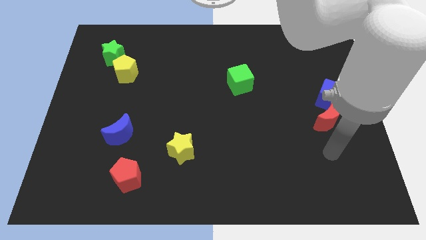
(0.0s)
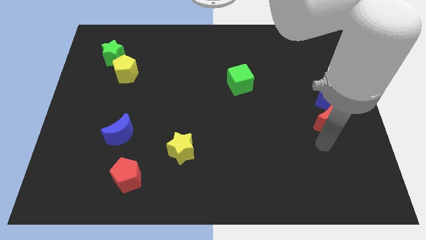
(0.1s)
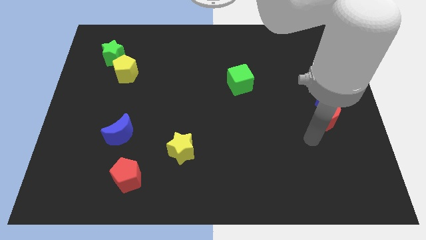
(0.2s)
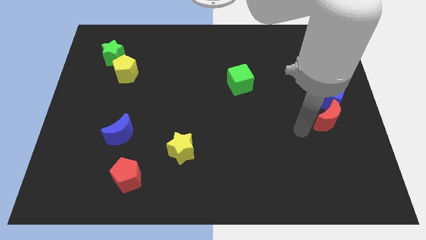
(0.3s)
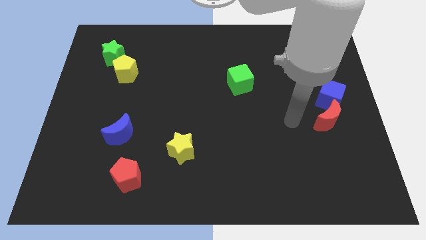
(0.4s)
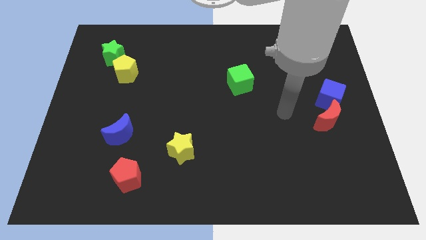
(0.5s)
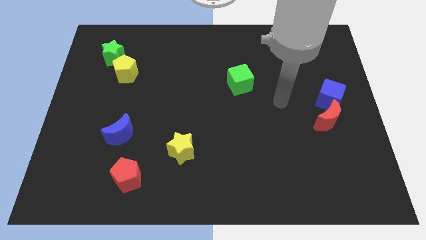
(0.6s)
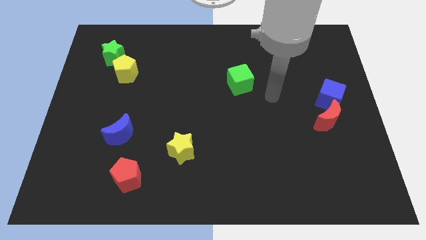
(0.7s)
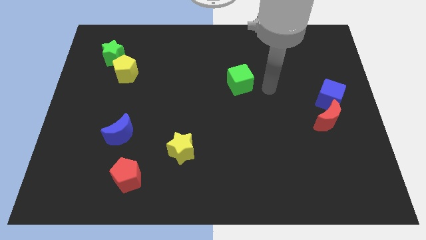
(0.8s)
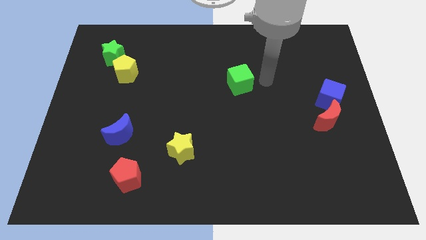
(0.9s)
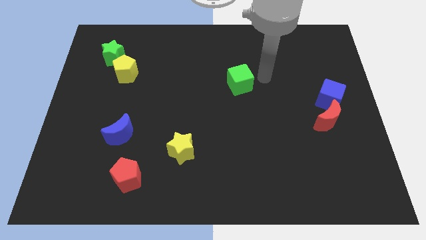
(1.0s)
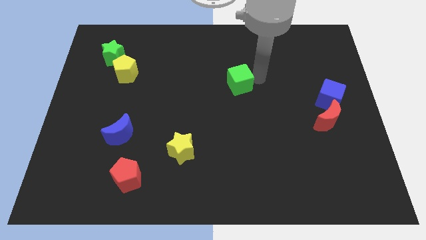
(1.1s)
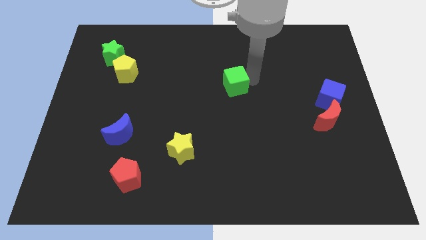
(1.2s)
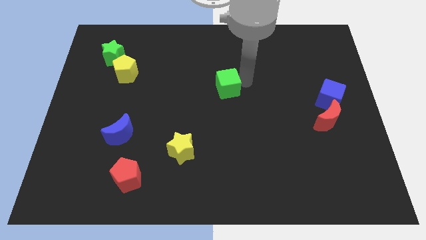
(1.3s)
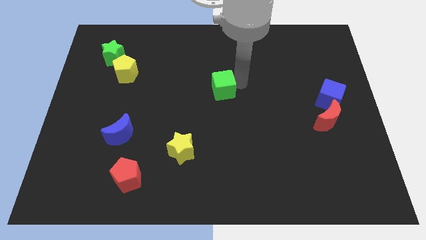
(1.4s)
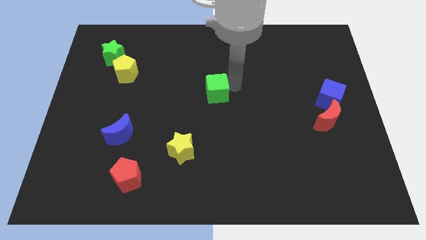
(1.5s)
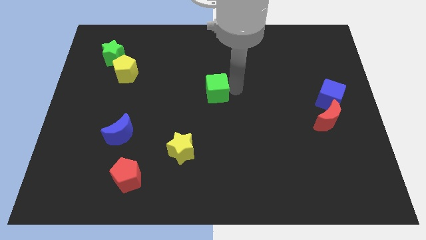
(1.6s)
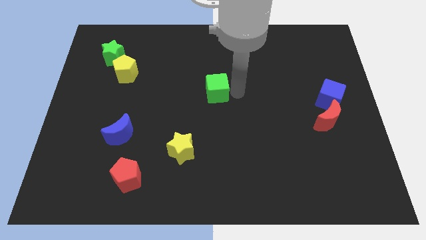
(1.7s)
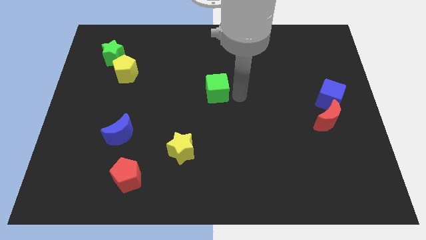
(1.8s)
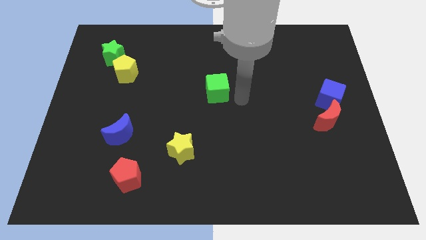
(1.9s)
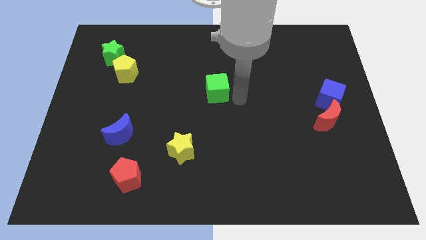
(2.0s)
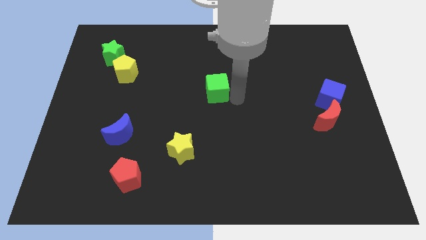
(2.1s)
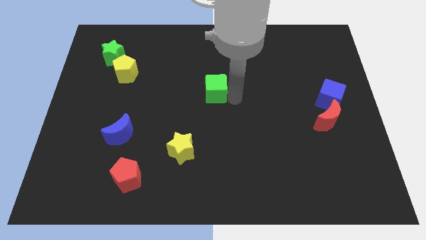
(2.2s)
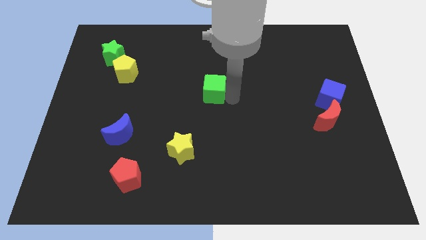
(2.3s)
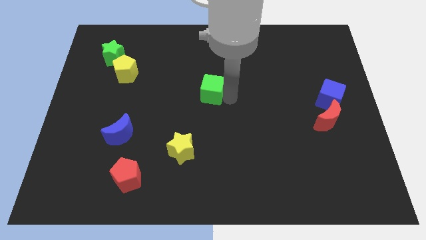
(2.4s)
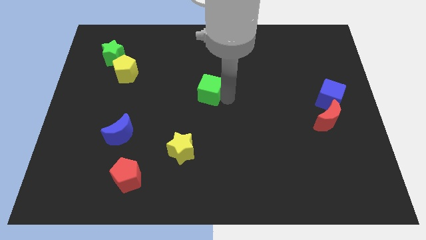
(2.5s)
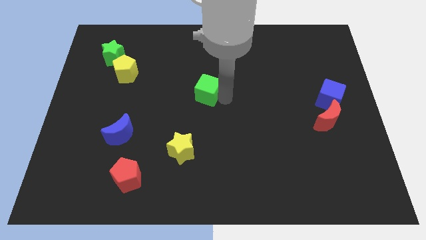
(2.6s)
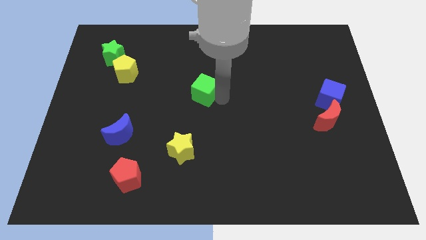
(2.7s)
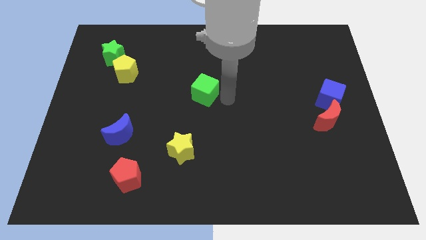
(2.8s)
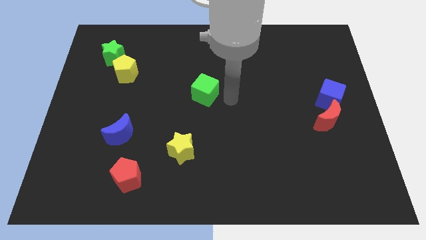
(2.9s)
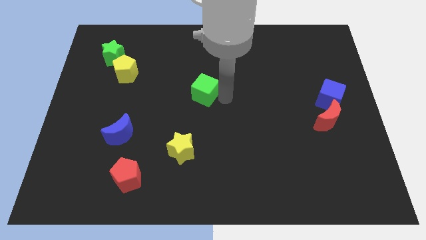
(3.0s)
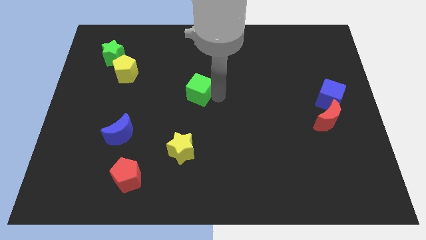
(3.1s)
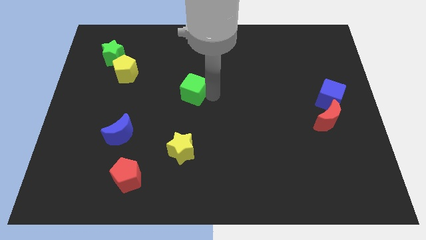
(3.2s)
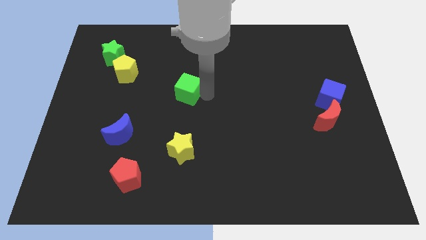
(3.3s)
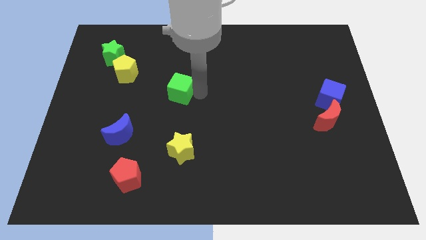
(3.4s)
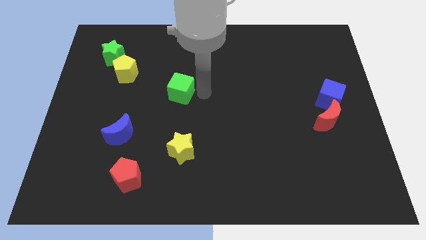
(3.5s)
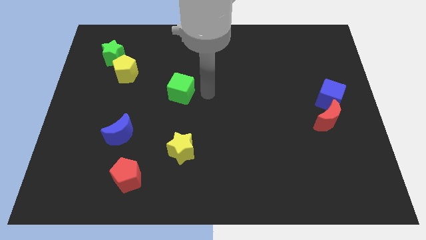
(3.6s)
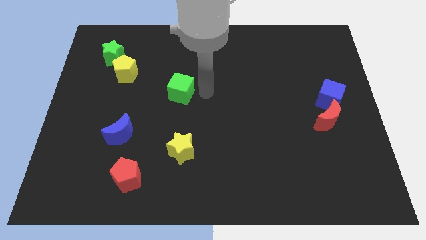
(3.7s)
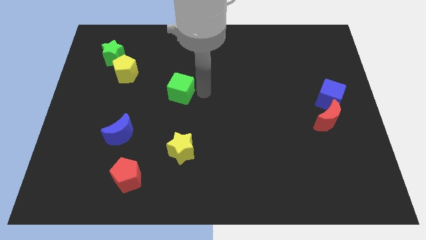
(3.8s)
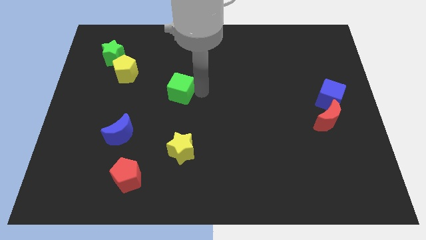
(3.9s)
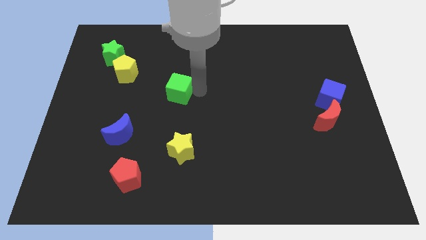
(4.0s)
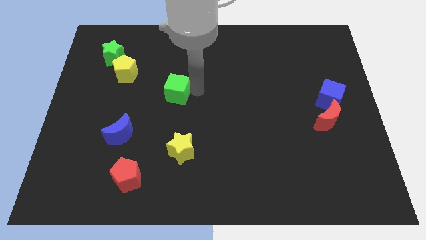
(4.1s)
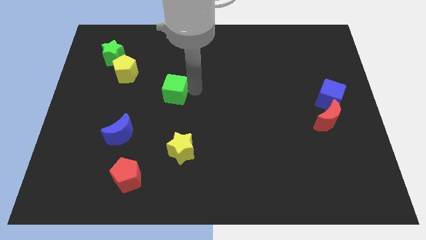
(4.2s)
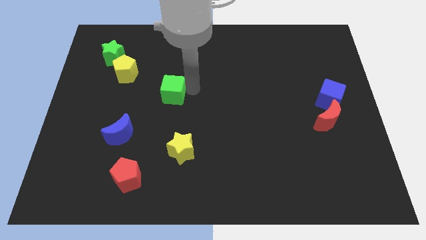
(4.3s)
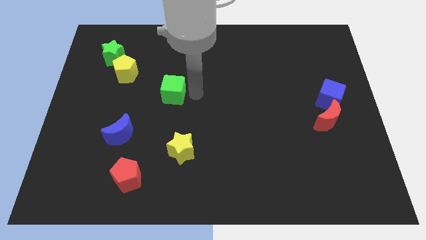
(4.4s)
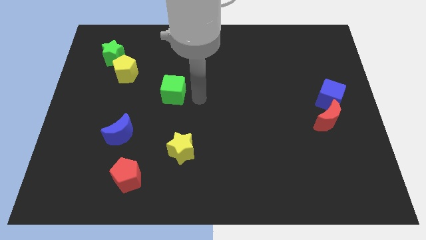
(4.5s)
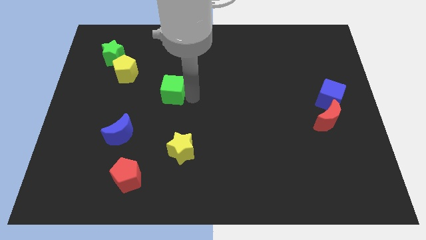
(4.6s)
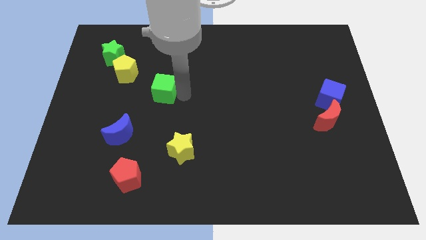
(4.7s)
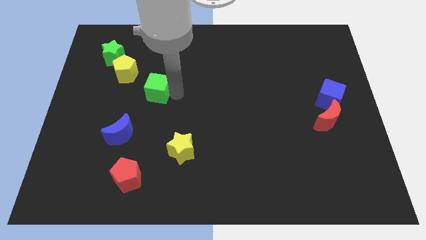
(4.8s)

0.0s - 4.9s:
push the green cube to the left

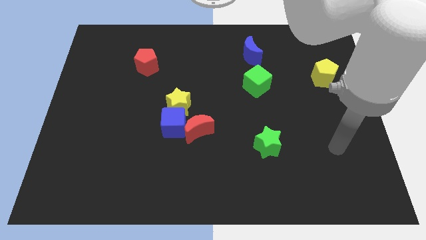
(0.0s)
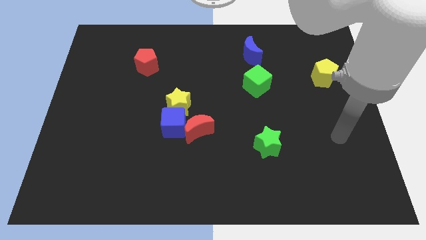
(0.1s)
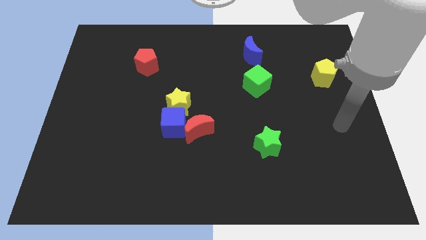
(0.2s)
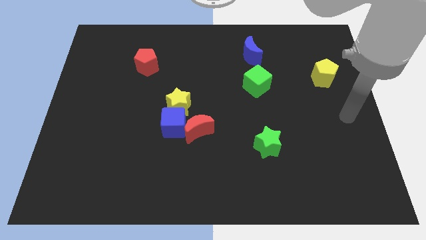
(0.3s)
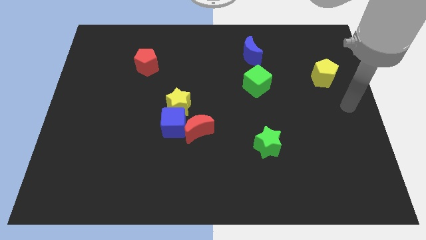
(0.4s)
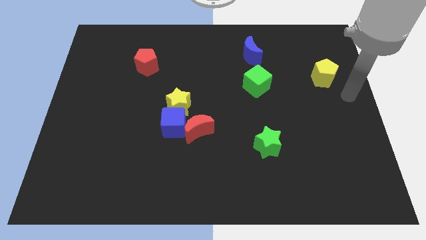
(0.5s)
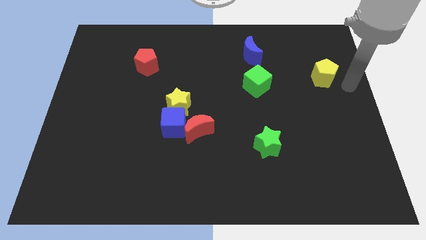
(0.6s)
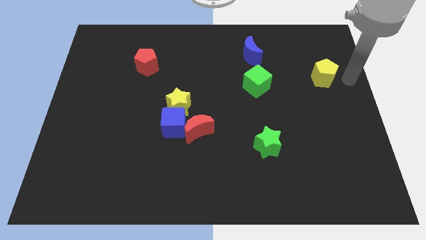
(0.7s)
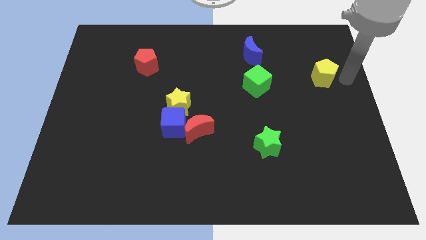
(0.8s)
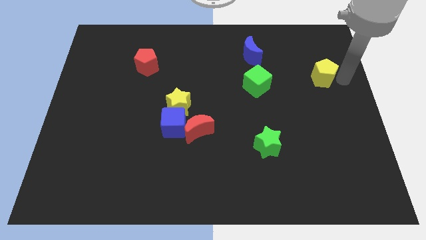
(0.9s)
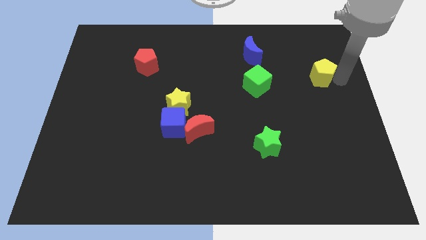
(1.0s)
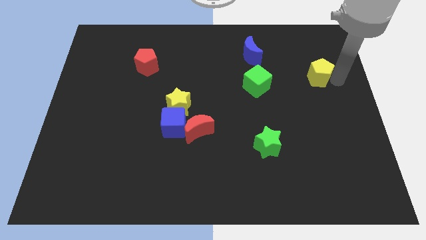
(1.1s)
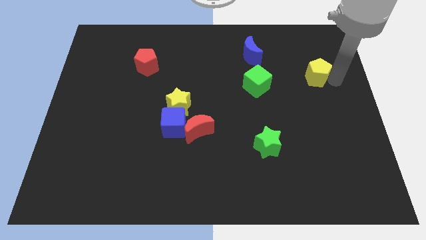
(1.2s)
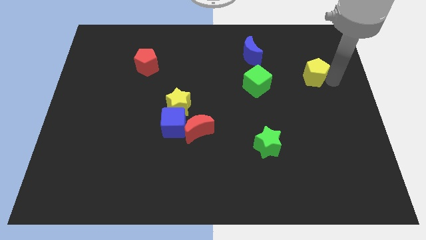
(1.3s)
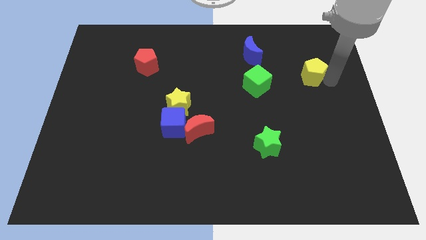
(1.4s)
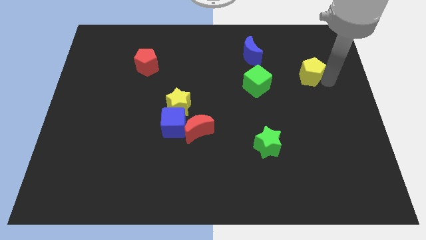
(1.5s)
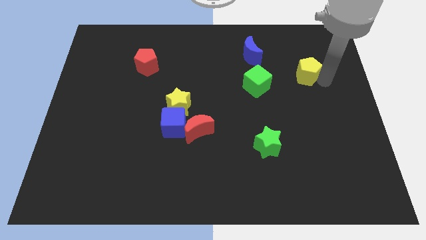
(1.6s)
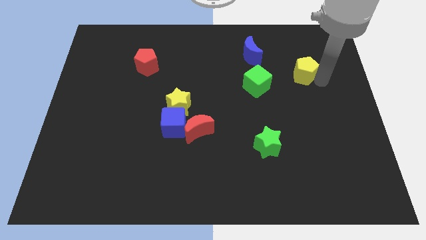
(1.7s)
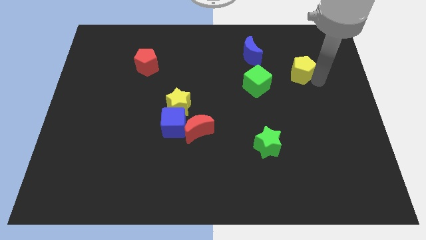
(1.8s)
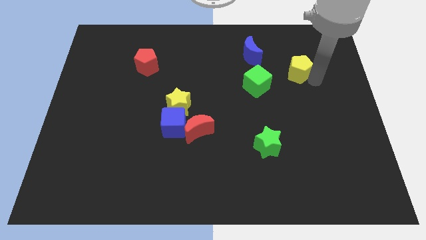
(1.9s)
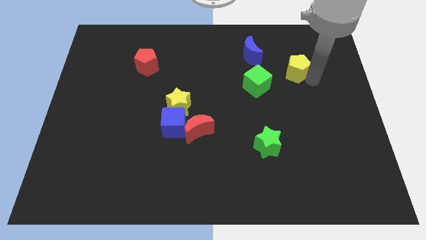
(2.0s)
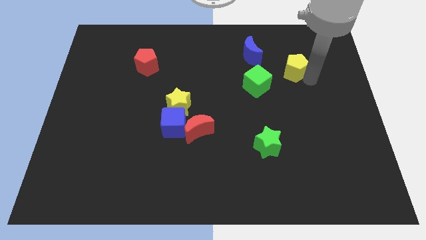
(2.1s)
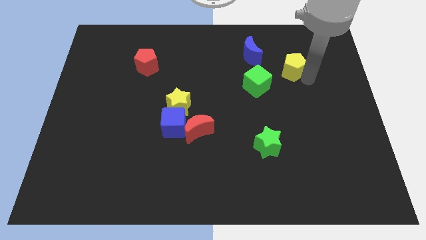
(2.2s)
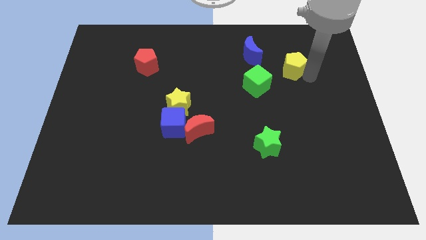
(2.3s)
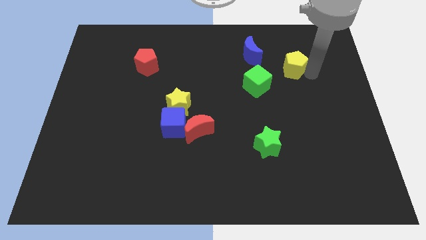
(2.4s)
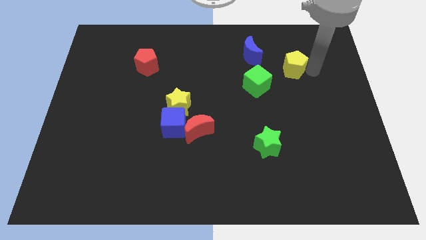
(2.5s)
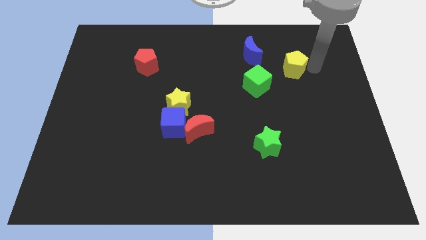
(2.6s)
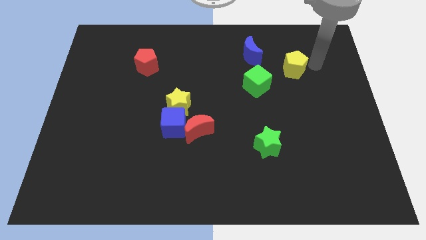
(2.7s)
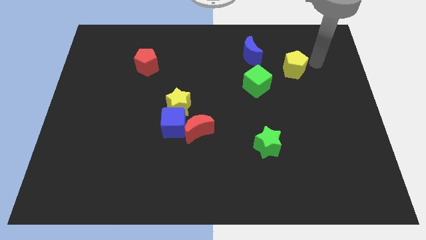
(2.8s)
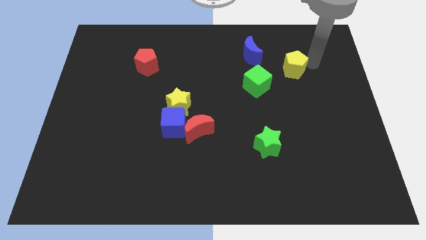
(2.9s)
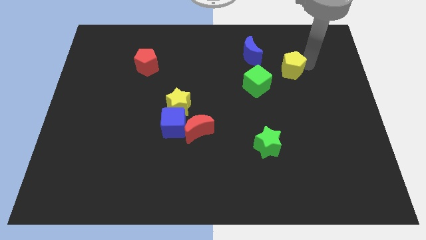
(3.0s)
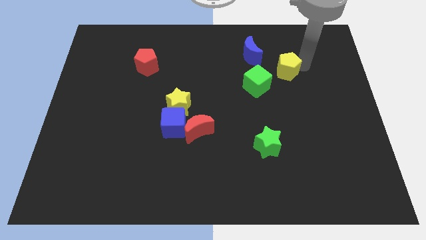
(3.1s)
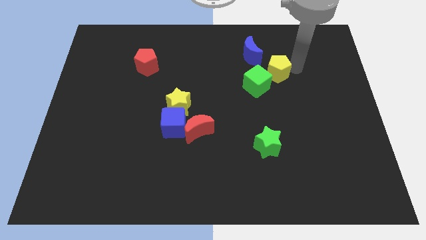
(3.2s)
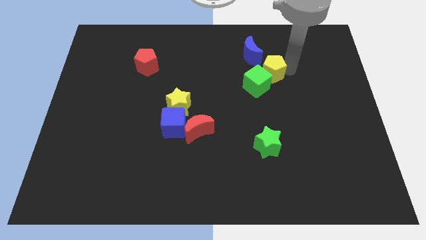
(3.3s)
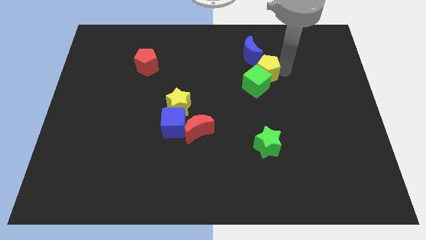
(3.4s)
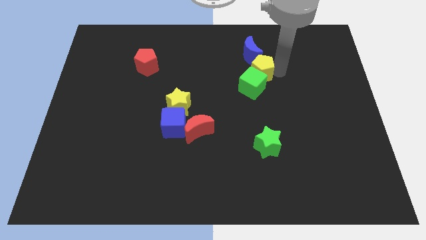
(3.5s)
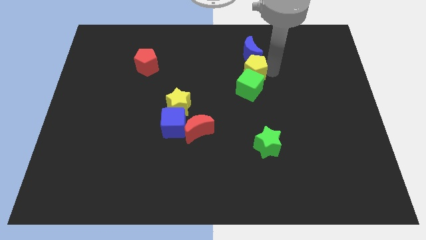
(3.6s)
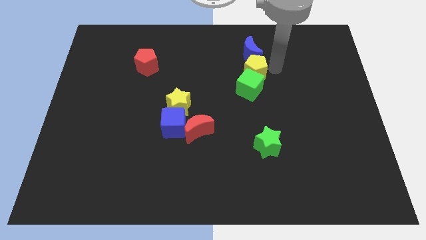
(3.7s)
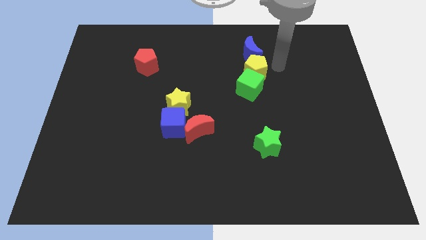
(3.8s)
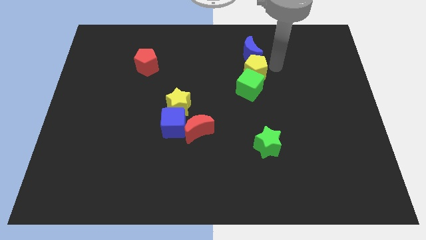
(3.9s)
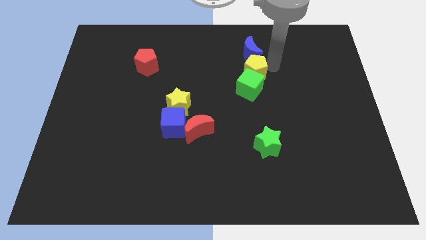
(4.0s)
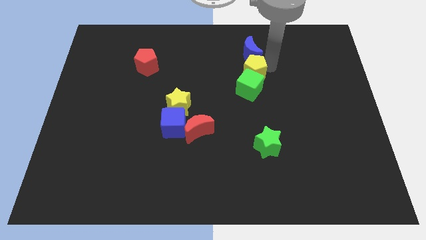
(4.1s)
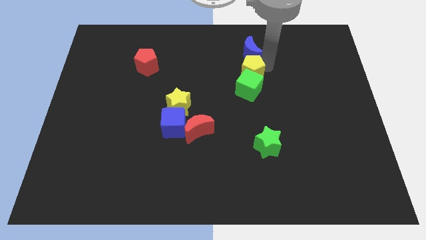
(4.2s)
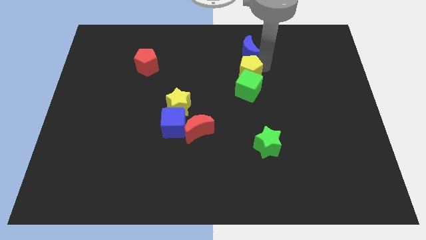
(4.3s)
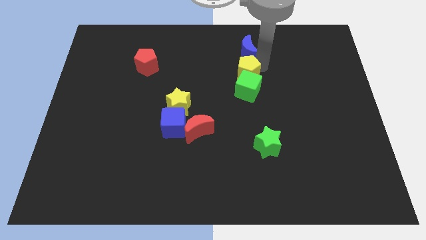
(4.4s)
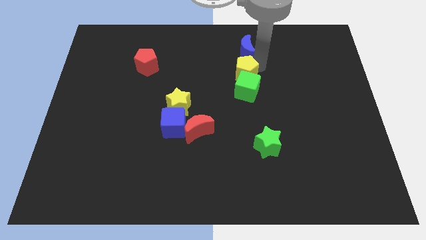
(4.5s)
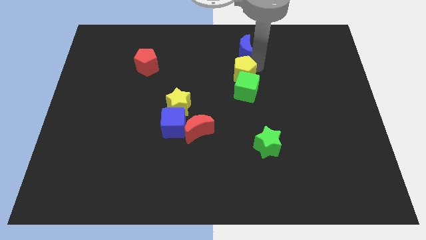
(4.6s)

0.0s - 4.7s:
push the yellow pentagon to the left
